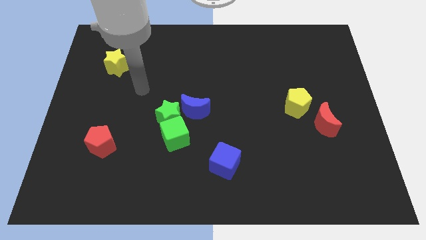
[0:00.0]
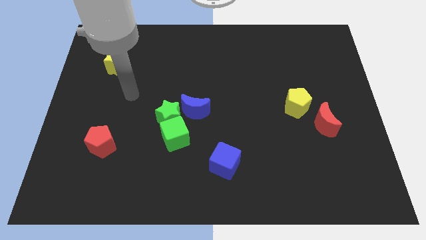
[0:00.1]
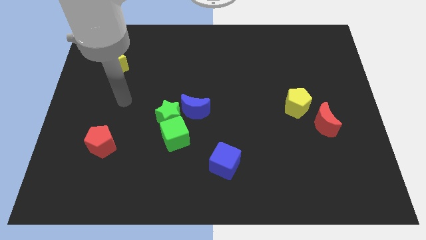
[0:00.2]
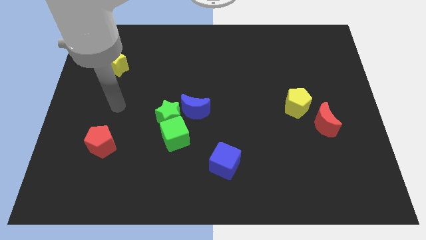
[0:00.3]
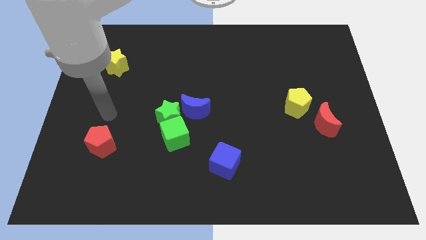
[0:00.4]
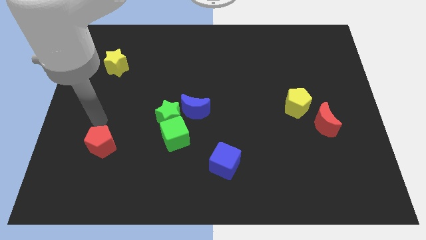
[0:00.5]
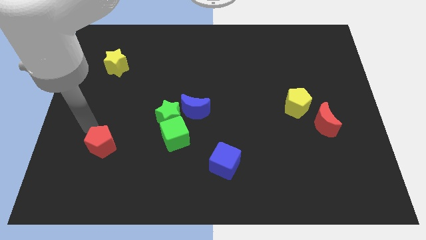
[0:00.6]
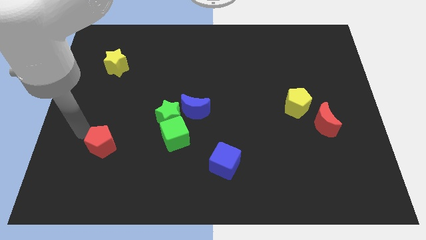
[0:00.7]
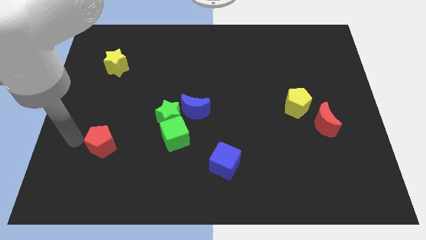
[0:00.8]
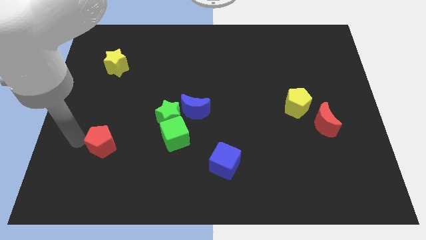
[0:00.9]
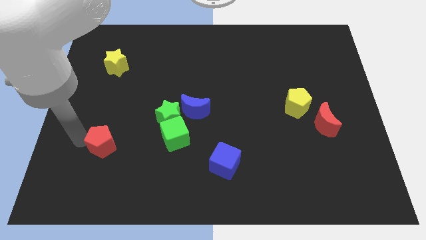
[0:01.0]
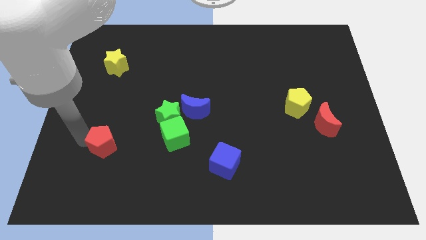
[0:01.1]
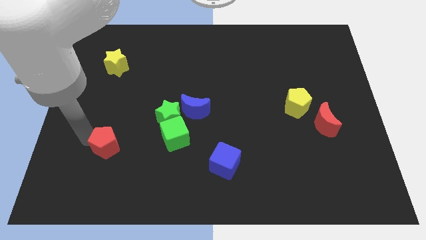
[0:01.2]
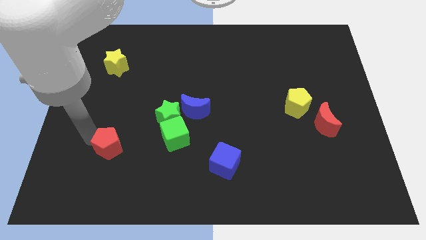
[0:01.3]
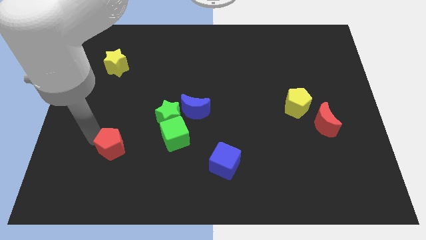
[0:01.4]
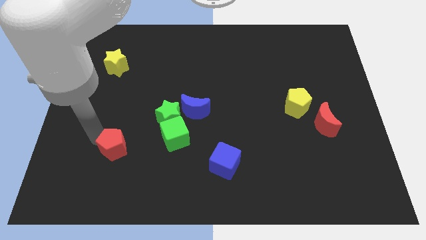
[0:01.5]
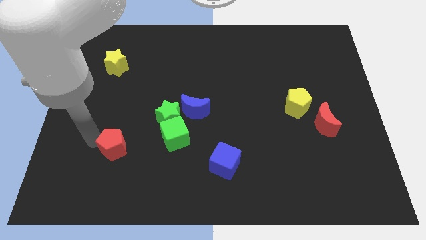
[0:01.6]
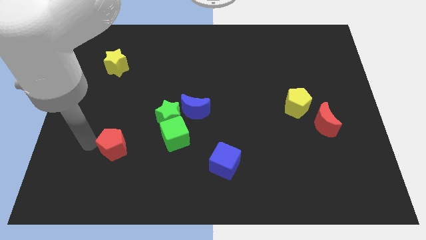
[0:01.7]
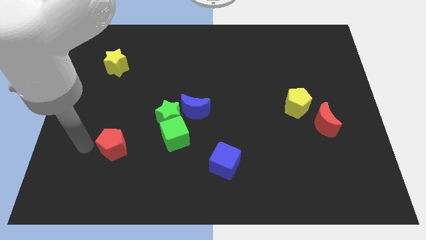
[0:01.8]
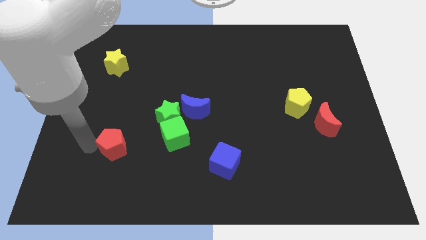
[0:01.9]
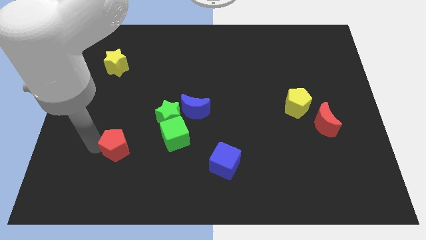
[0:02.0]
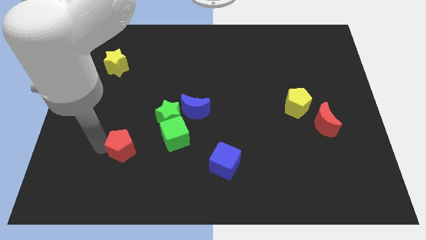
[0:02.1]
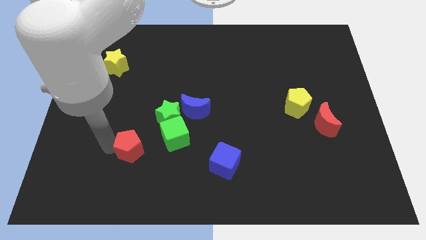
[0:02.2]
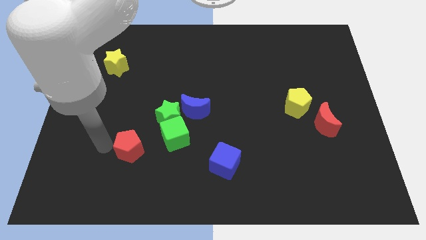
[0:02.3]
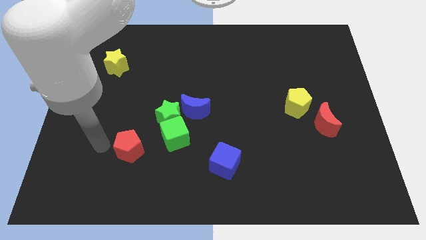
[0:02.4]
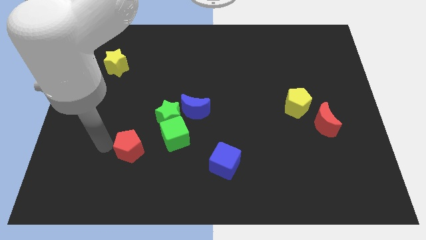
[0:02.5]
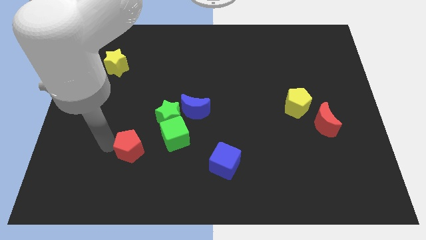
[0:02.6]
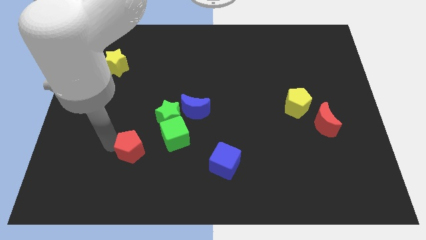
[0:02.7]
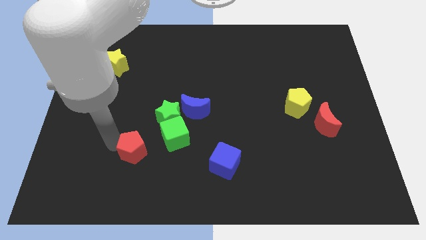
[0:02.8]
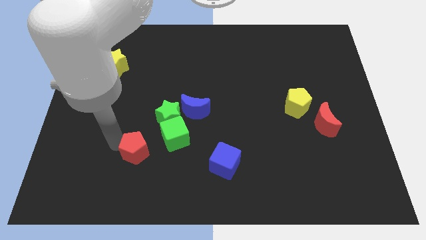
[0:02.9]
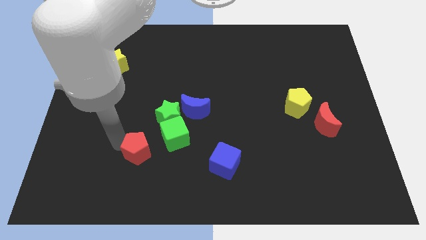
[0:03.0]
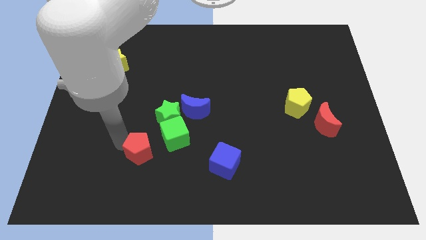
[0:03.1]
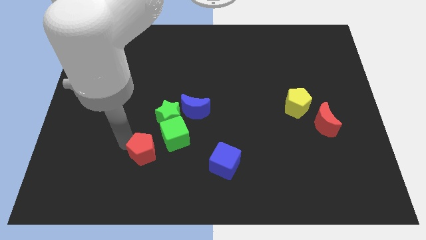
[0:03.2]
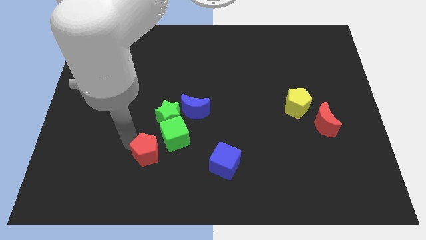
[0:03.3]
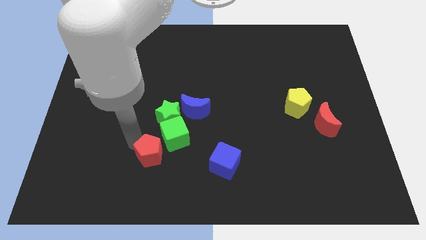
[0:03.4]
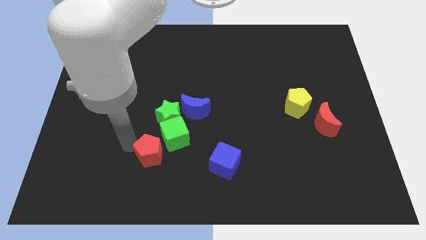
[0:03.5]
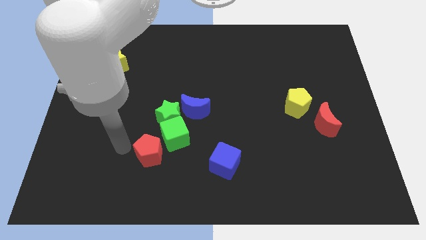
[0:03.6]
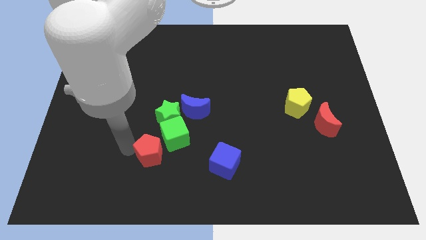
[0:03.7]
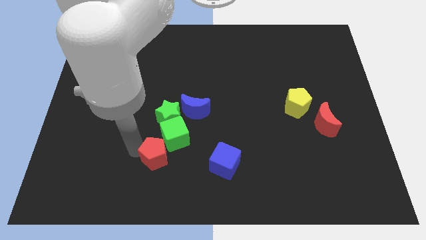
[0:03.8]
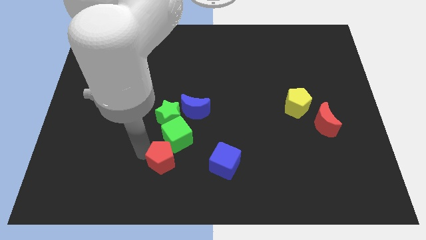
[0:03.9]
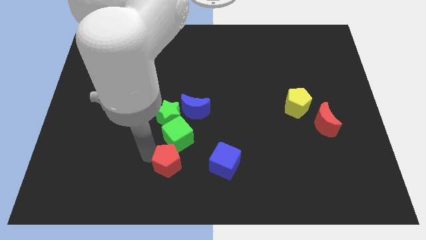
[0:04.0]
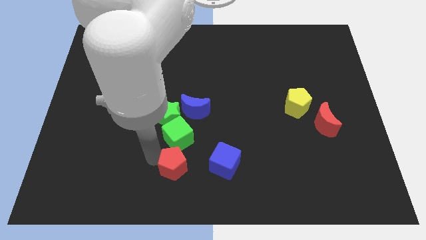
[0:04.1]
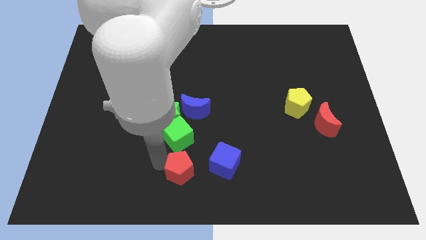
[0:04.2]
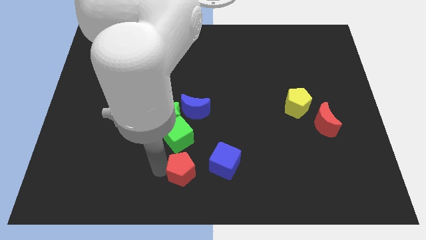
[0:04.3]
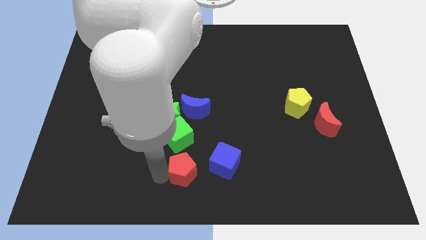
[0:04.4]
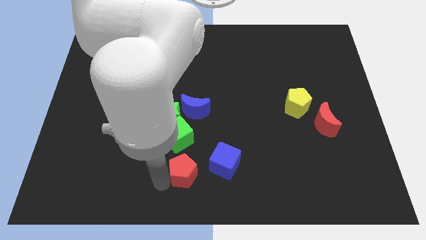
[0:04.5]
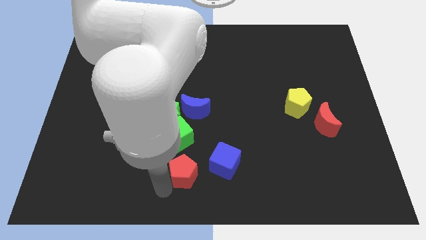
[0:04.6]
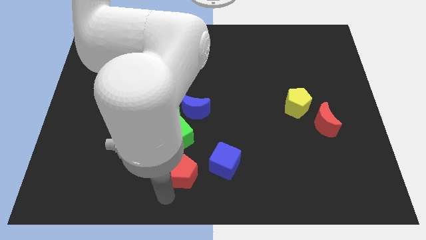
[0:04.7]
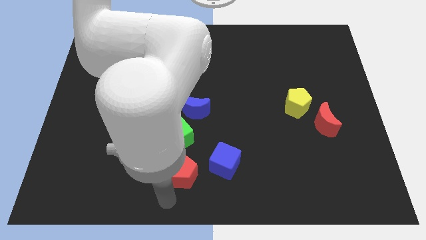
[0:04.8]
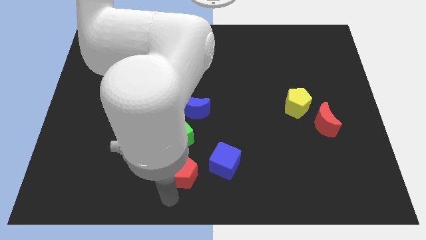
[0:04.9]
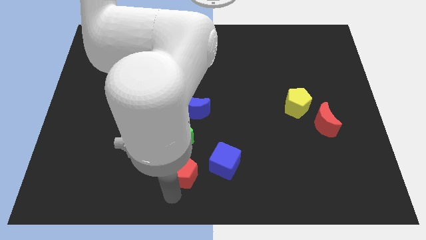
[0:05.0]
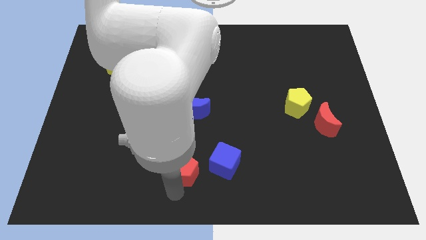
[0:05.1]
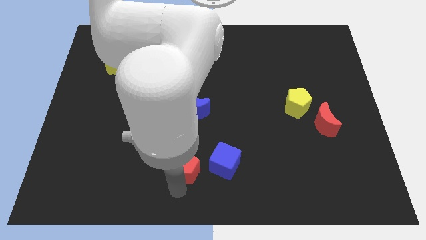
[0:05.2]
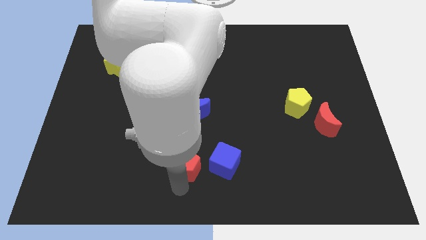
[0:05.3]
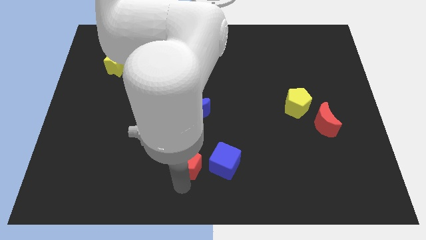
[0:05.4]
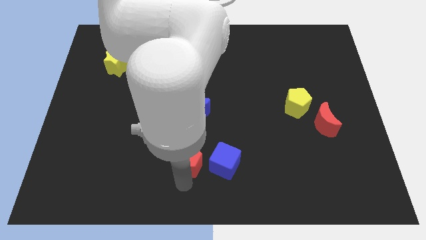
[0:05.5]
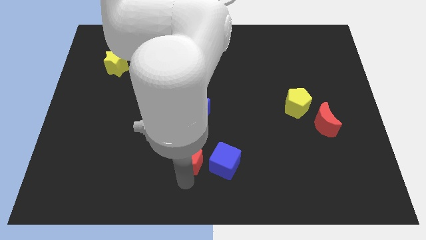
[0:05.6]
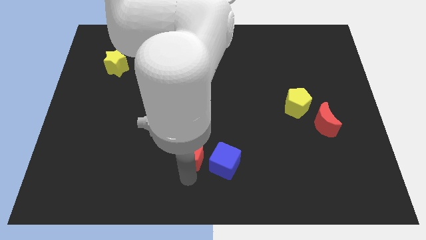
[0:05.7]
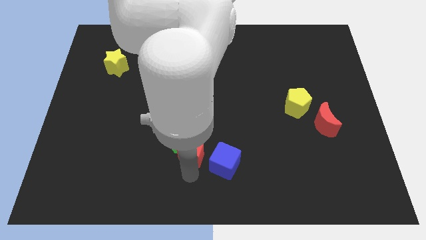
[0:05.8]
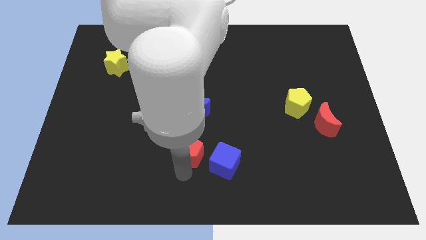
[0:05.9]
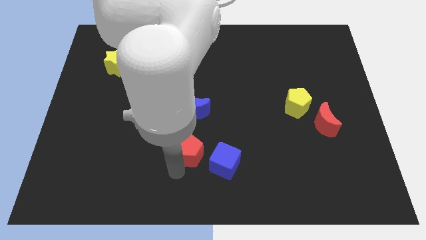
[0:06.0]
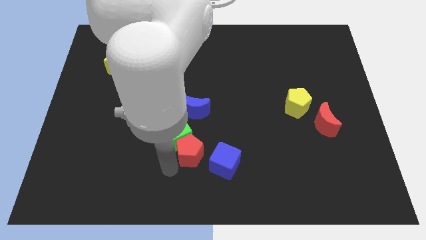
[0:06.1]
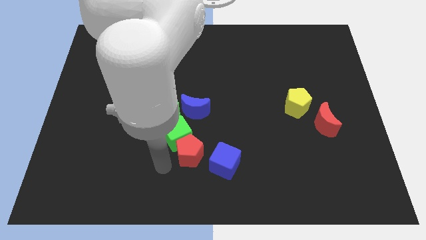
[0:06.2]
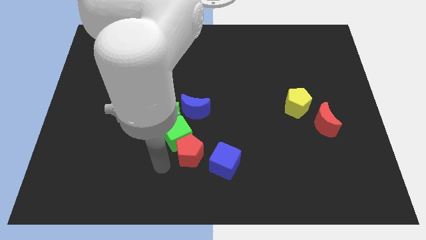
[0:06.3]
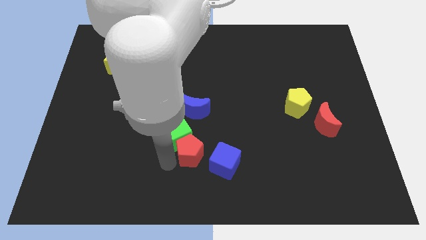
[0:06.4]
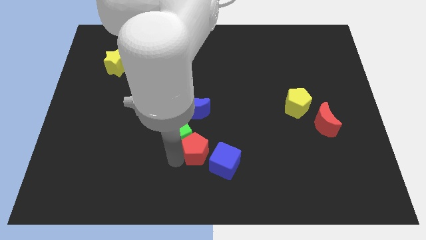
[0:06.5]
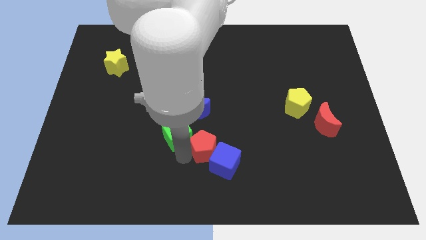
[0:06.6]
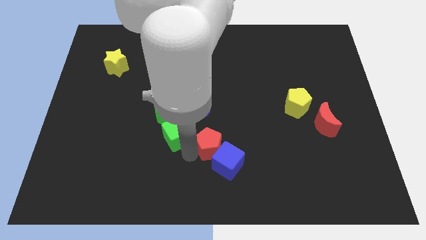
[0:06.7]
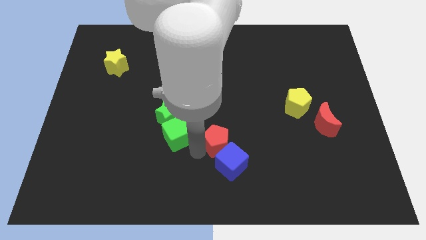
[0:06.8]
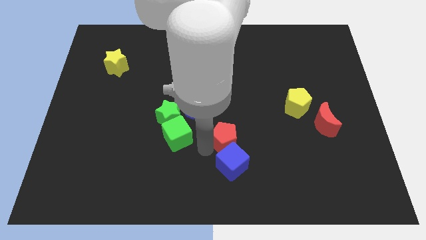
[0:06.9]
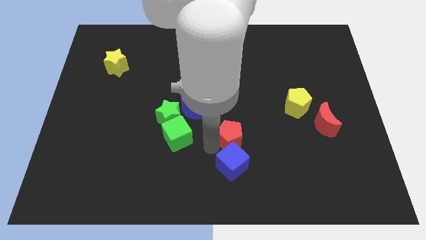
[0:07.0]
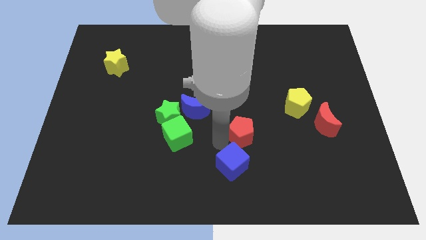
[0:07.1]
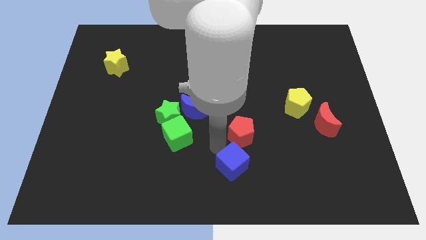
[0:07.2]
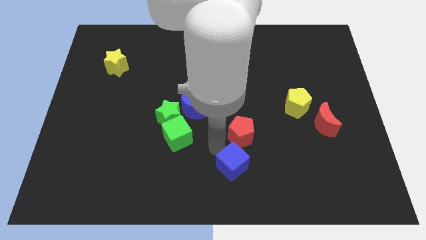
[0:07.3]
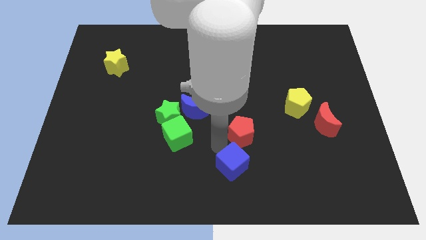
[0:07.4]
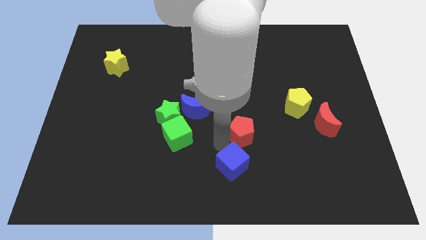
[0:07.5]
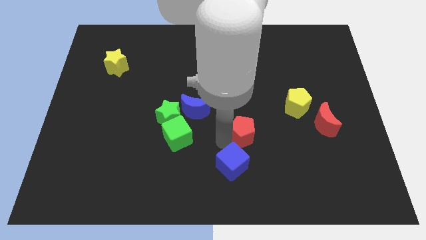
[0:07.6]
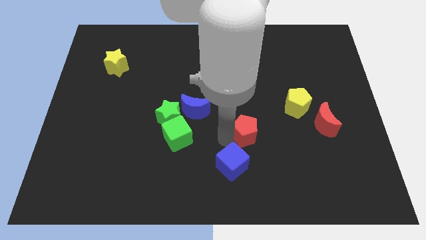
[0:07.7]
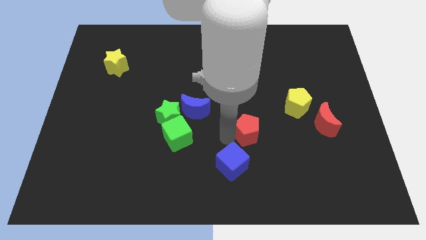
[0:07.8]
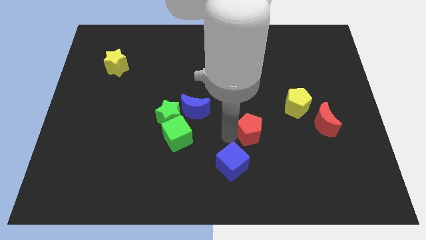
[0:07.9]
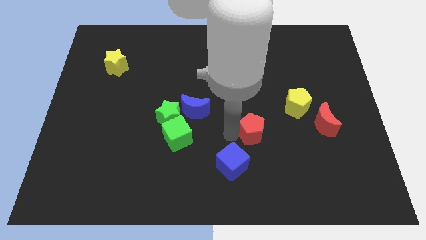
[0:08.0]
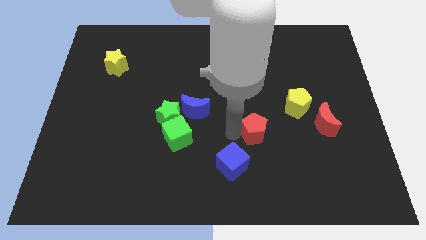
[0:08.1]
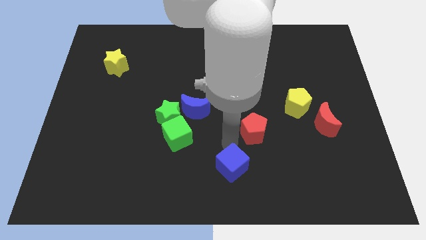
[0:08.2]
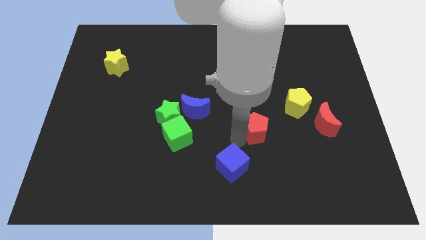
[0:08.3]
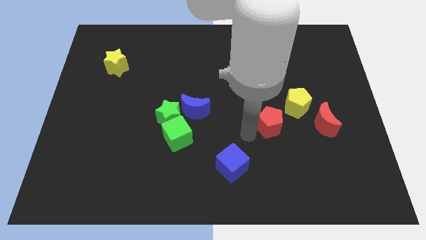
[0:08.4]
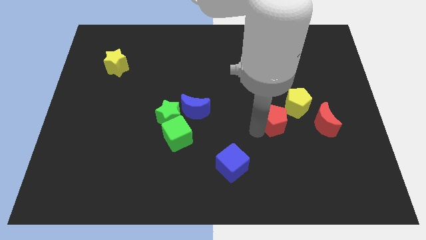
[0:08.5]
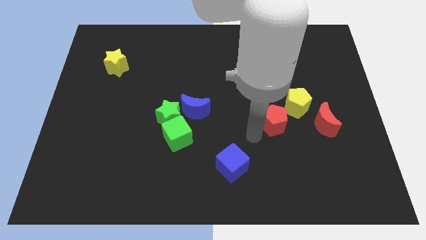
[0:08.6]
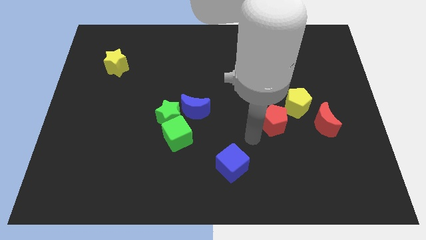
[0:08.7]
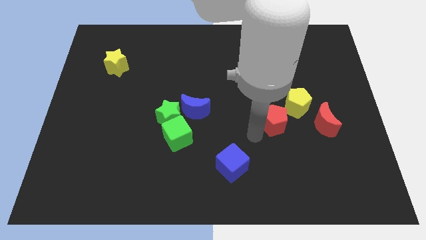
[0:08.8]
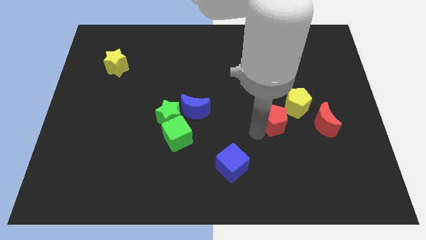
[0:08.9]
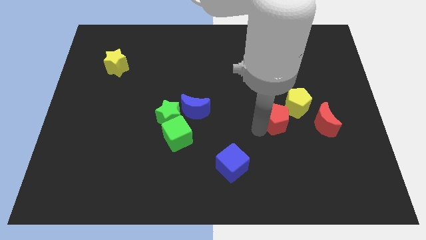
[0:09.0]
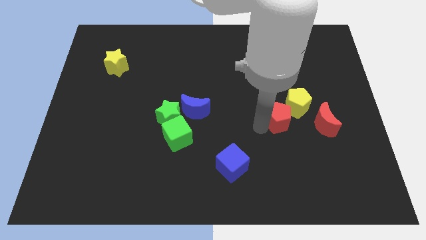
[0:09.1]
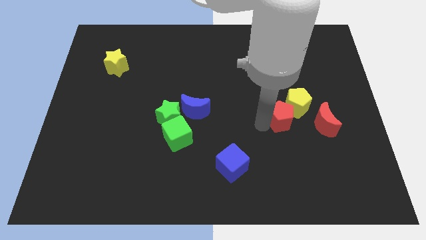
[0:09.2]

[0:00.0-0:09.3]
move the red pentagon towards the yellow pentagon
